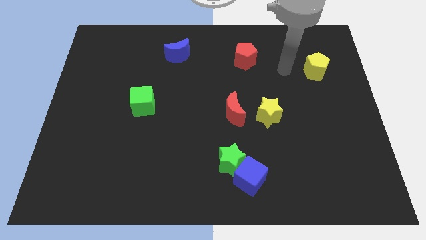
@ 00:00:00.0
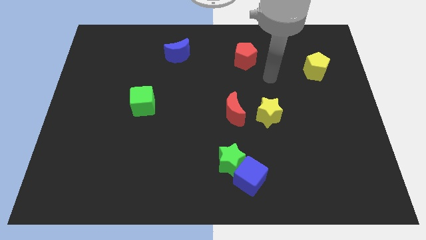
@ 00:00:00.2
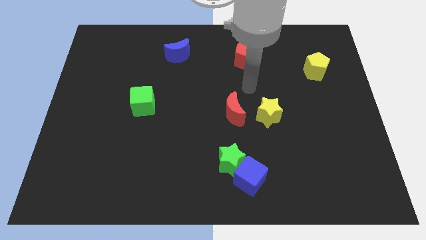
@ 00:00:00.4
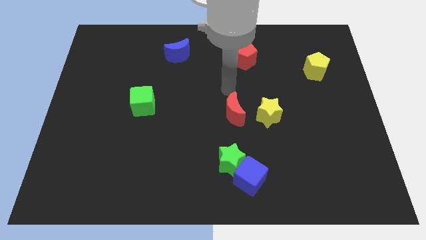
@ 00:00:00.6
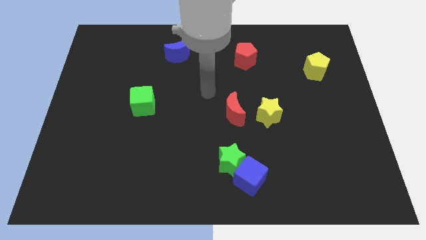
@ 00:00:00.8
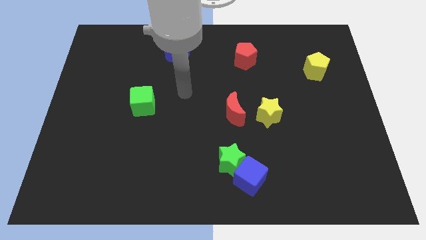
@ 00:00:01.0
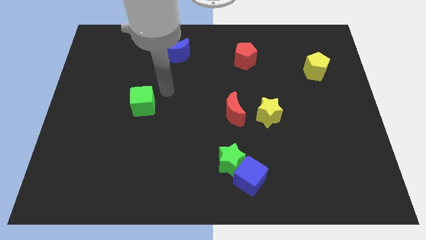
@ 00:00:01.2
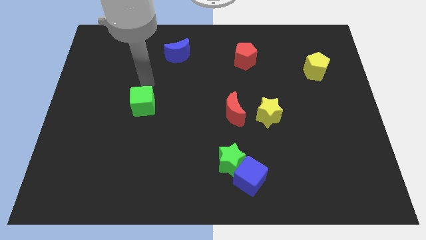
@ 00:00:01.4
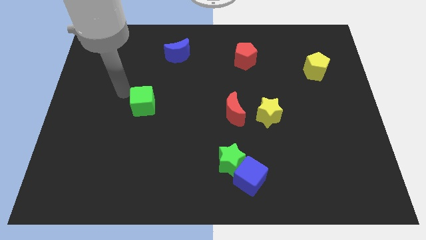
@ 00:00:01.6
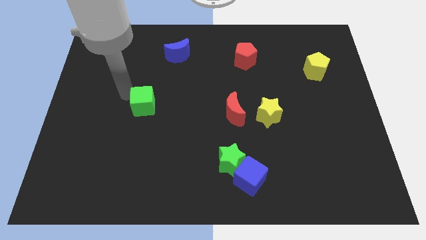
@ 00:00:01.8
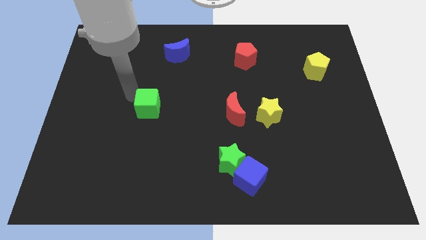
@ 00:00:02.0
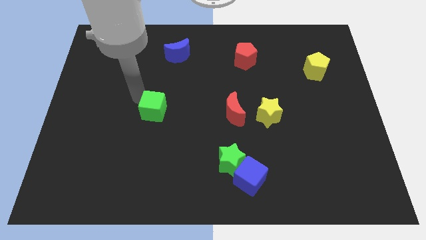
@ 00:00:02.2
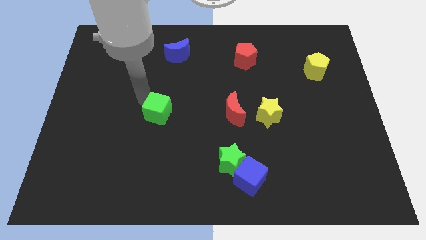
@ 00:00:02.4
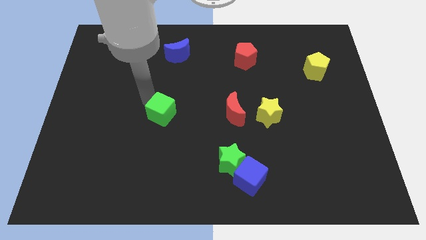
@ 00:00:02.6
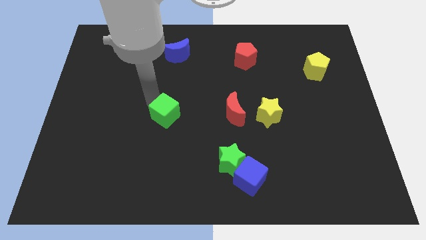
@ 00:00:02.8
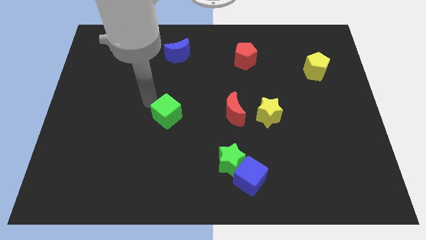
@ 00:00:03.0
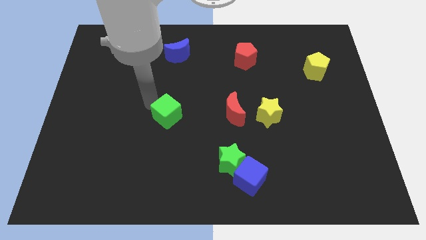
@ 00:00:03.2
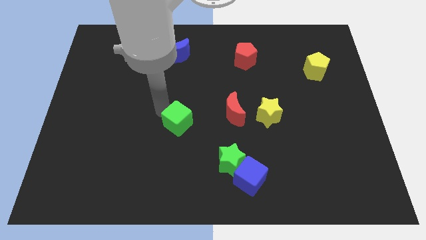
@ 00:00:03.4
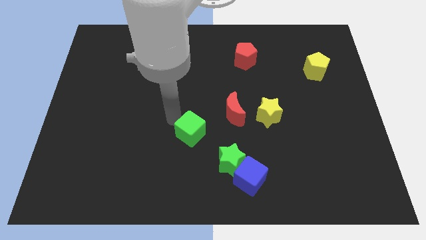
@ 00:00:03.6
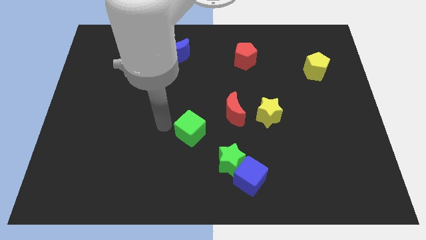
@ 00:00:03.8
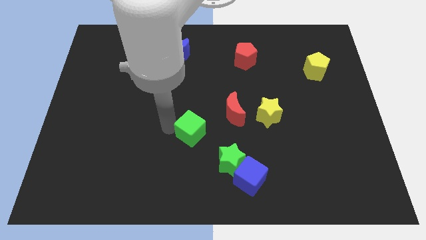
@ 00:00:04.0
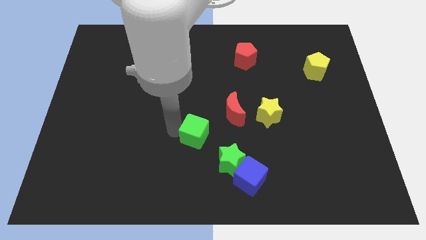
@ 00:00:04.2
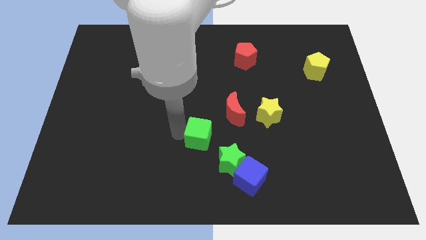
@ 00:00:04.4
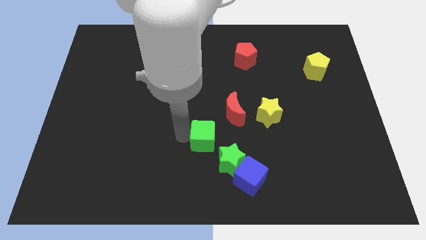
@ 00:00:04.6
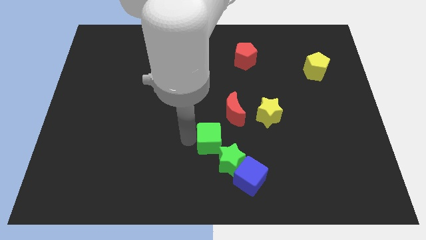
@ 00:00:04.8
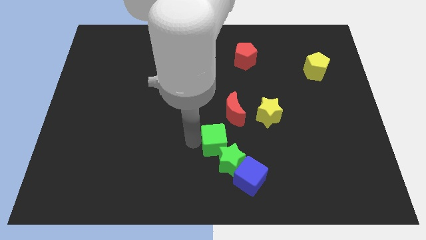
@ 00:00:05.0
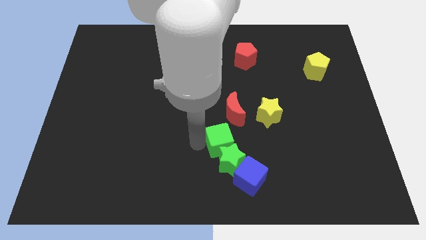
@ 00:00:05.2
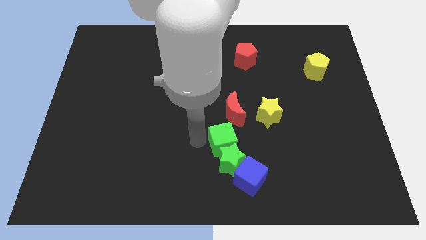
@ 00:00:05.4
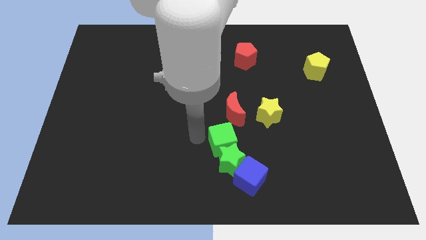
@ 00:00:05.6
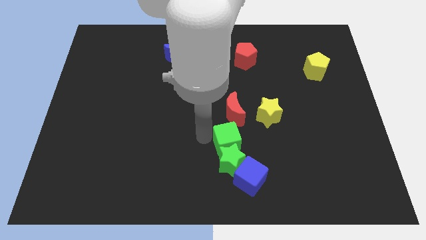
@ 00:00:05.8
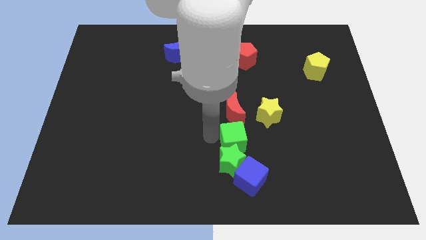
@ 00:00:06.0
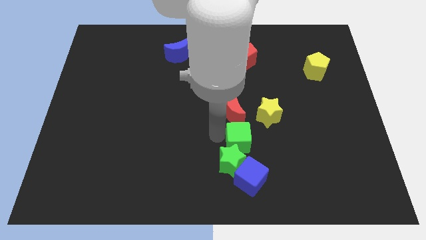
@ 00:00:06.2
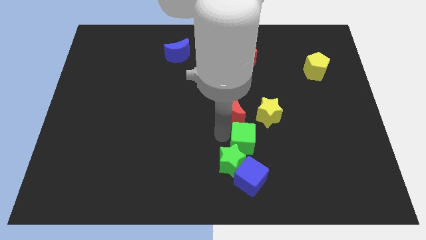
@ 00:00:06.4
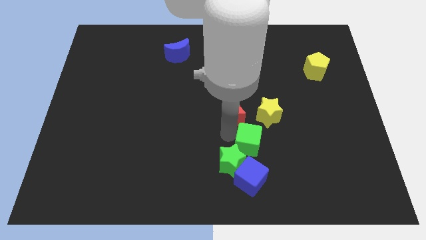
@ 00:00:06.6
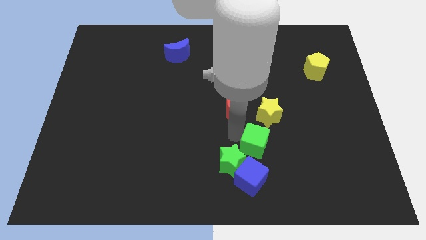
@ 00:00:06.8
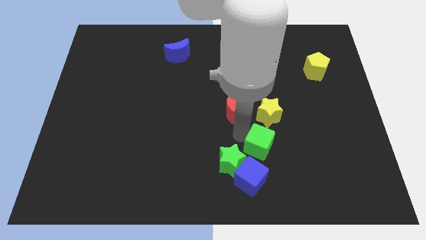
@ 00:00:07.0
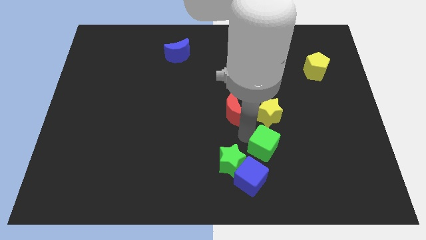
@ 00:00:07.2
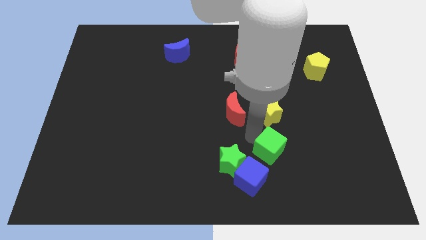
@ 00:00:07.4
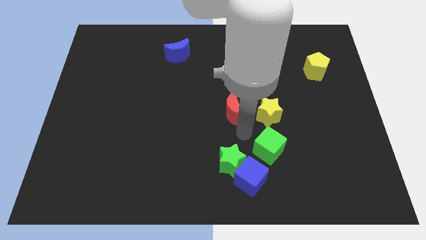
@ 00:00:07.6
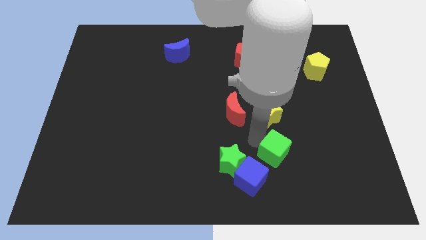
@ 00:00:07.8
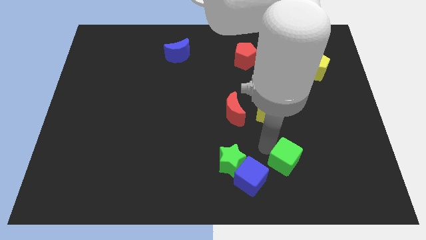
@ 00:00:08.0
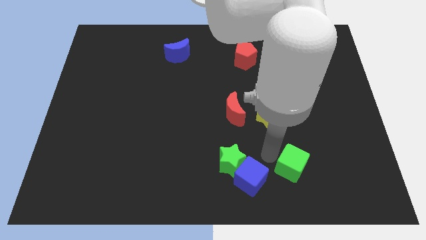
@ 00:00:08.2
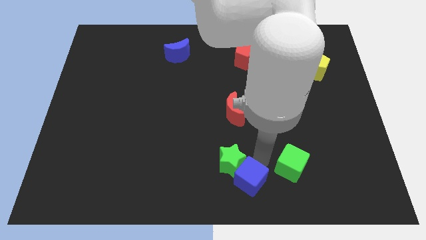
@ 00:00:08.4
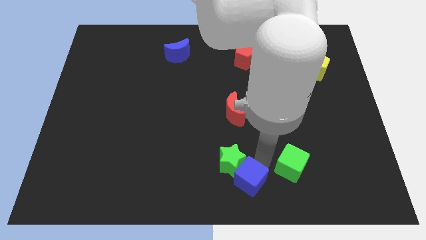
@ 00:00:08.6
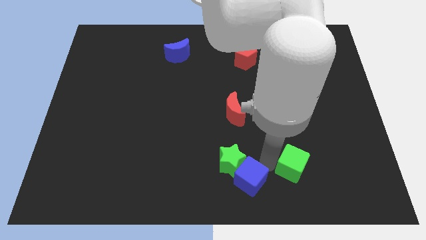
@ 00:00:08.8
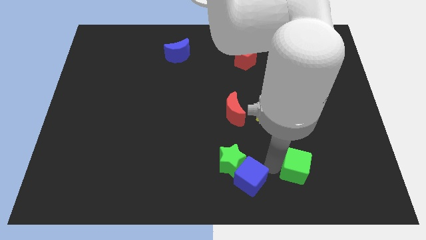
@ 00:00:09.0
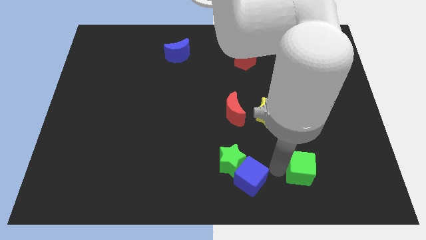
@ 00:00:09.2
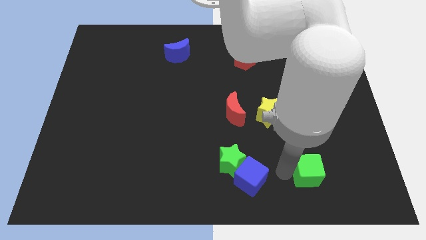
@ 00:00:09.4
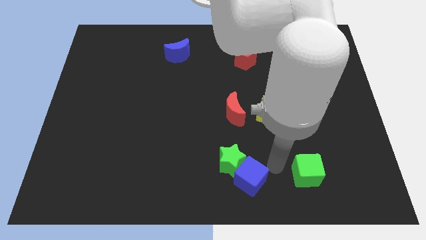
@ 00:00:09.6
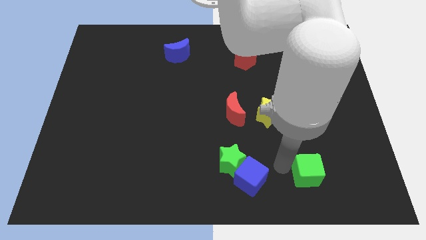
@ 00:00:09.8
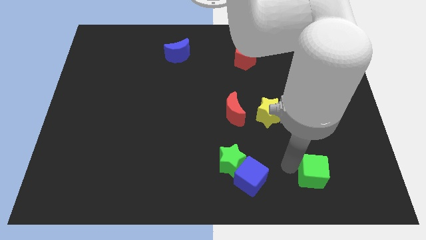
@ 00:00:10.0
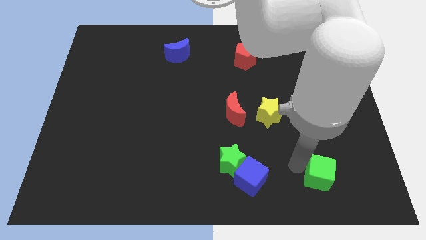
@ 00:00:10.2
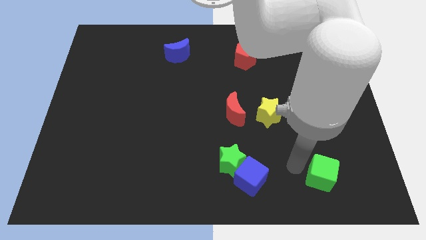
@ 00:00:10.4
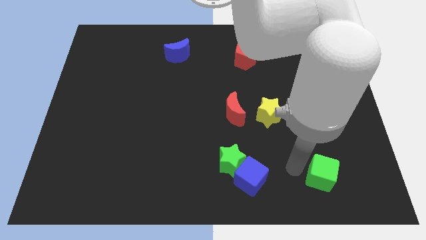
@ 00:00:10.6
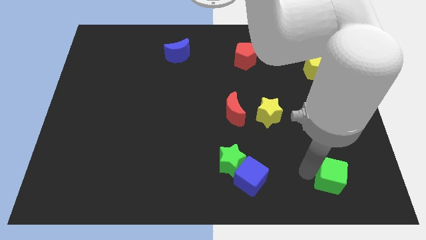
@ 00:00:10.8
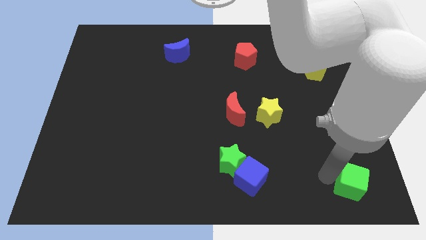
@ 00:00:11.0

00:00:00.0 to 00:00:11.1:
slide the green cube to the bottom right corner

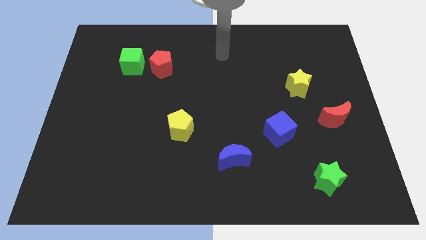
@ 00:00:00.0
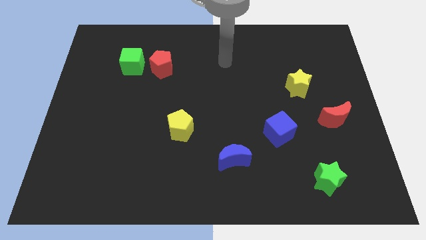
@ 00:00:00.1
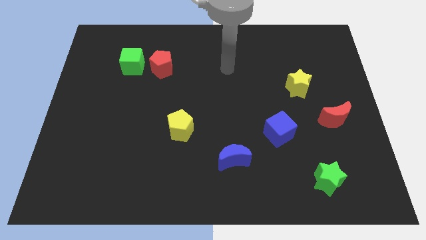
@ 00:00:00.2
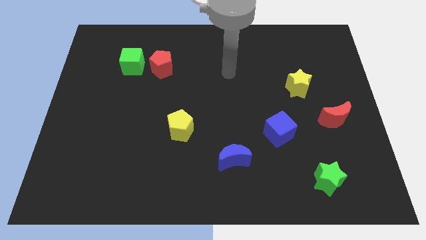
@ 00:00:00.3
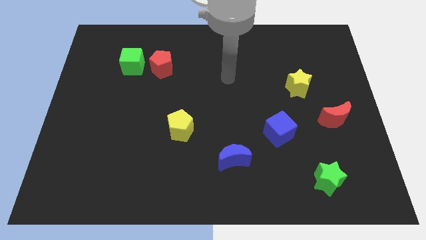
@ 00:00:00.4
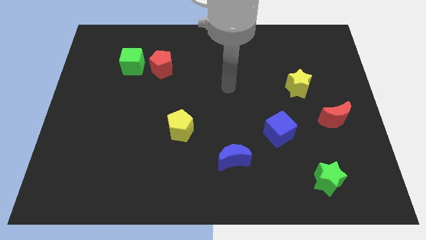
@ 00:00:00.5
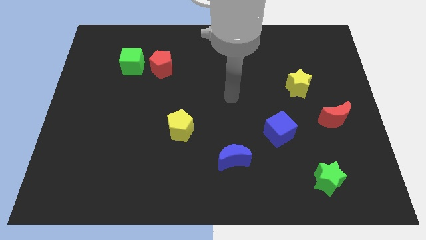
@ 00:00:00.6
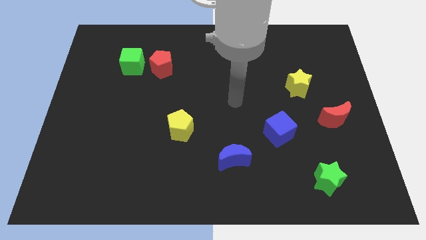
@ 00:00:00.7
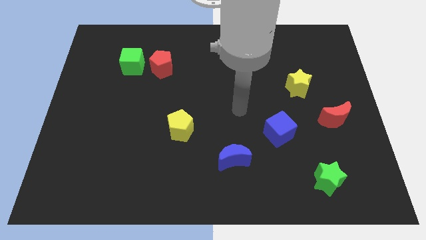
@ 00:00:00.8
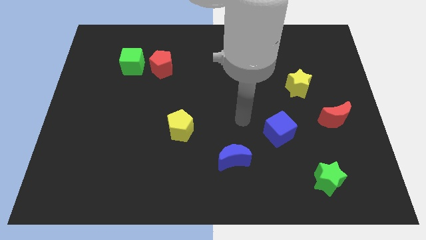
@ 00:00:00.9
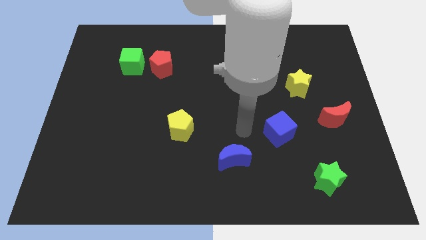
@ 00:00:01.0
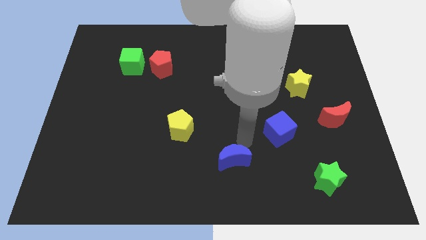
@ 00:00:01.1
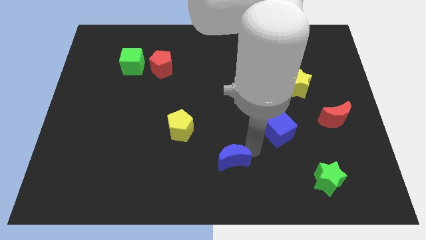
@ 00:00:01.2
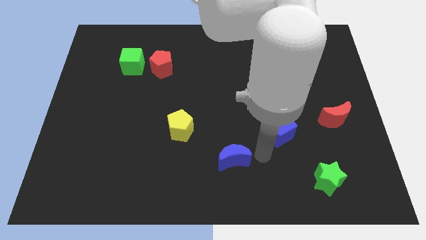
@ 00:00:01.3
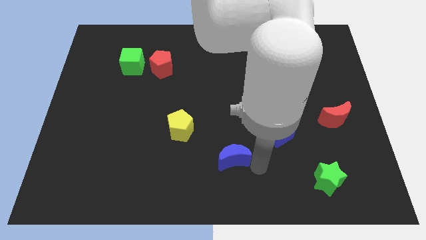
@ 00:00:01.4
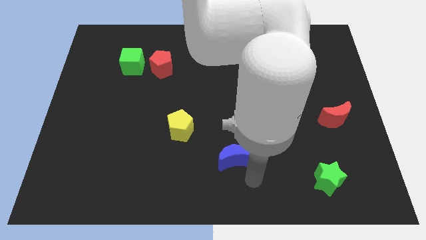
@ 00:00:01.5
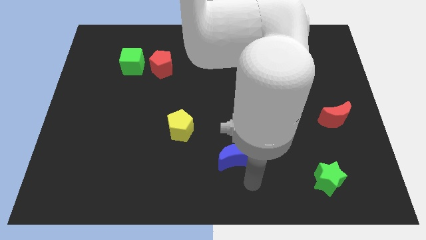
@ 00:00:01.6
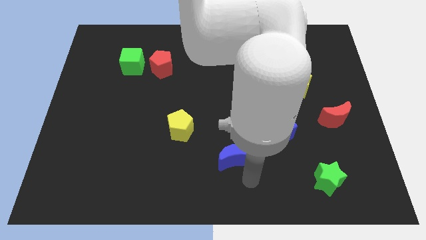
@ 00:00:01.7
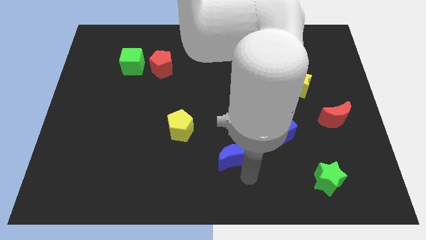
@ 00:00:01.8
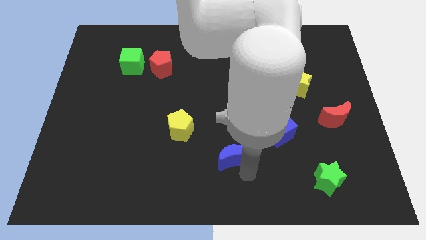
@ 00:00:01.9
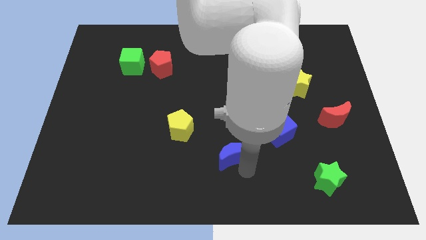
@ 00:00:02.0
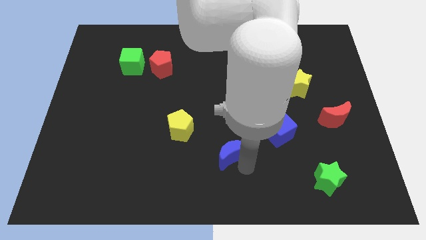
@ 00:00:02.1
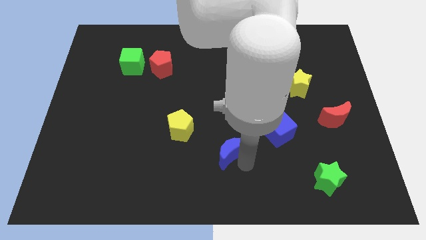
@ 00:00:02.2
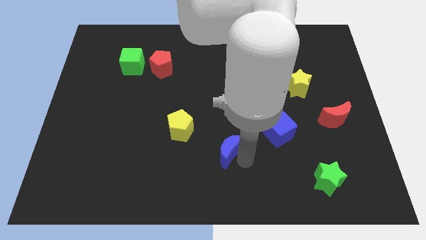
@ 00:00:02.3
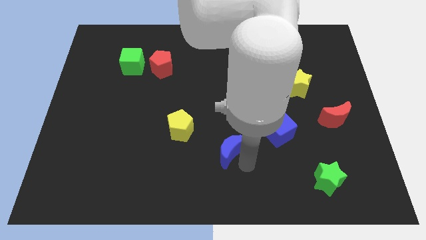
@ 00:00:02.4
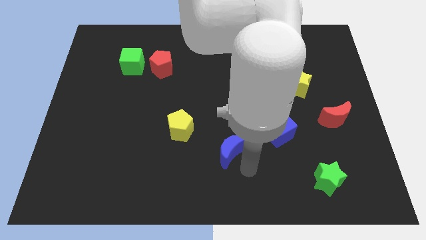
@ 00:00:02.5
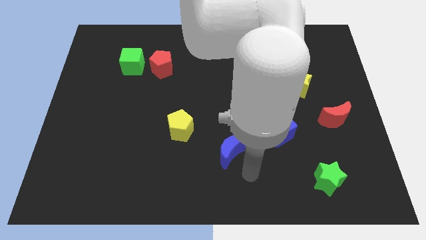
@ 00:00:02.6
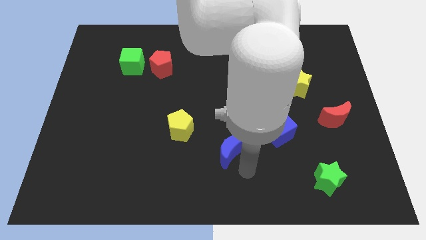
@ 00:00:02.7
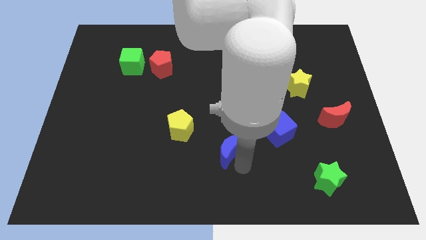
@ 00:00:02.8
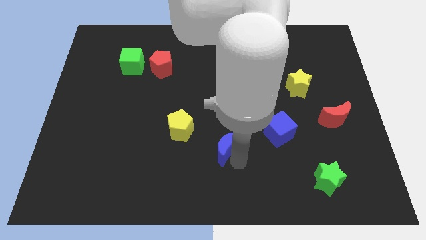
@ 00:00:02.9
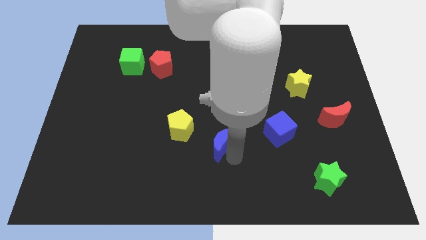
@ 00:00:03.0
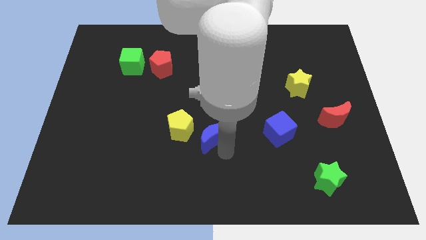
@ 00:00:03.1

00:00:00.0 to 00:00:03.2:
slide the blue moon to the middle
